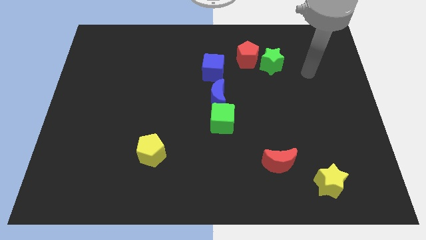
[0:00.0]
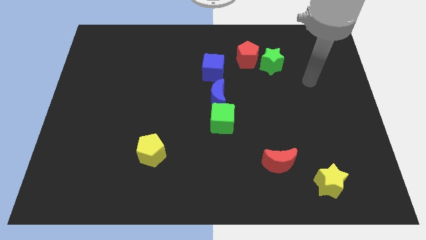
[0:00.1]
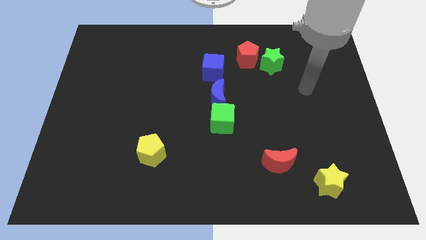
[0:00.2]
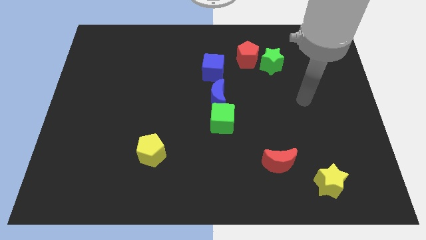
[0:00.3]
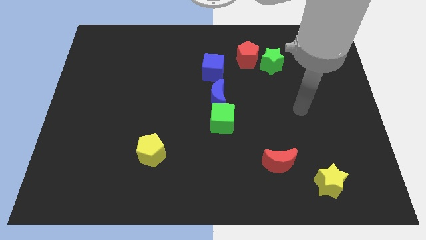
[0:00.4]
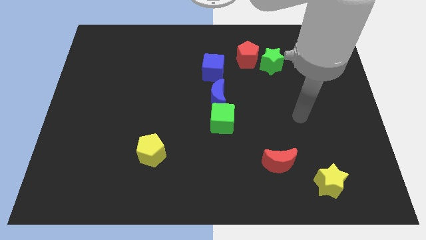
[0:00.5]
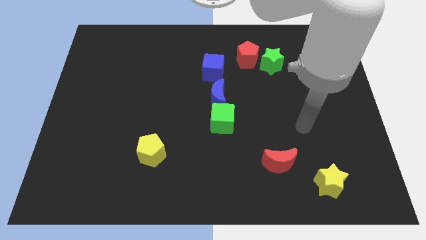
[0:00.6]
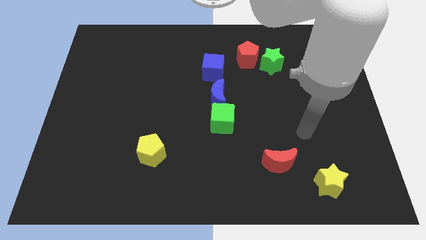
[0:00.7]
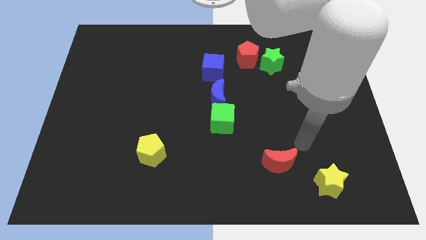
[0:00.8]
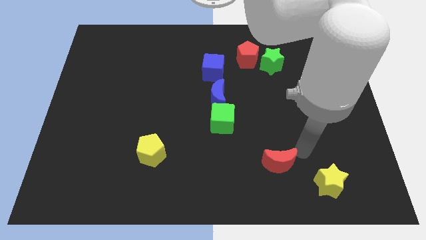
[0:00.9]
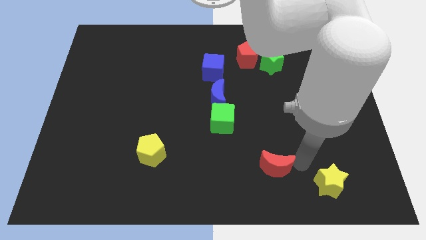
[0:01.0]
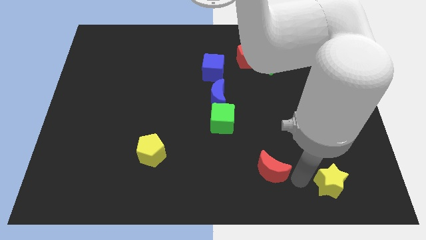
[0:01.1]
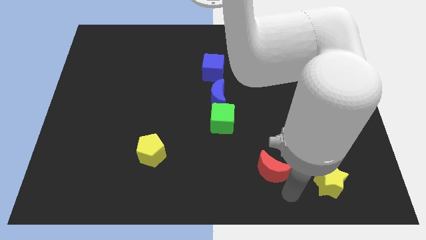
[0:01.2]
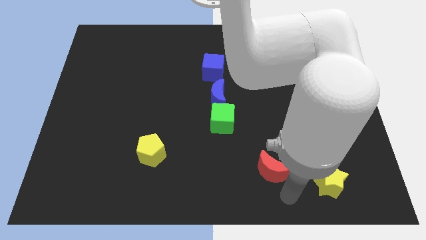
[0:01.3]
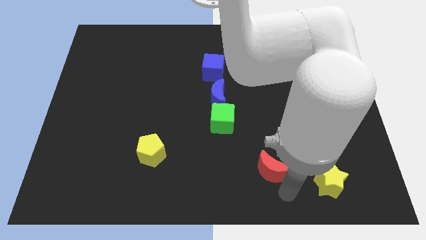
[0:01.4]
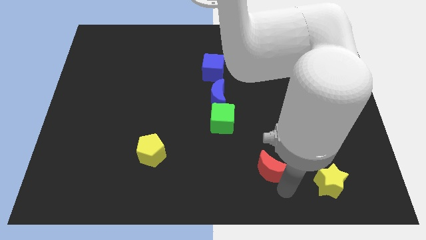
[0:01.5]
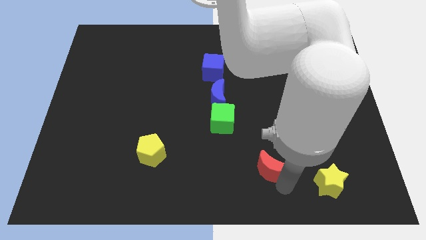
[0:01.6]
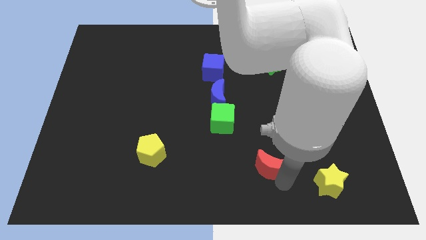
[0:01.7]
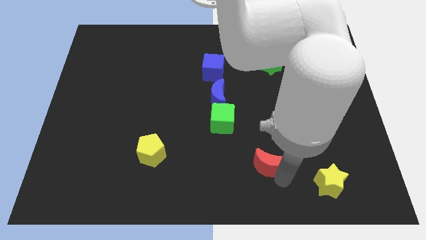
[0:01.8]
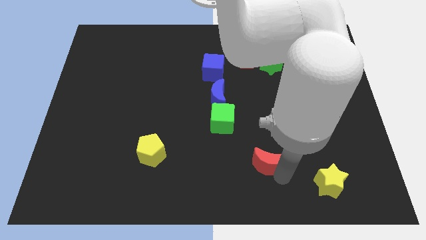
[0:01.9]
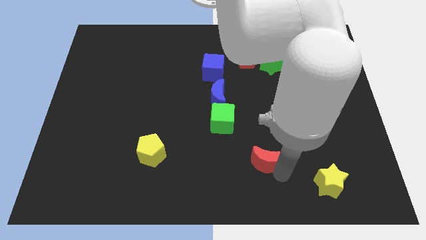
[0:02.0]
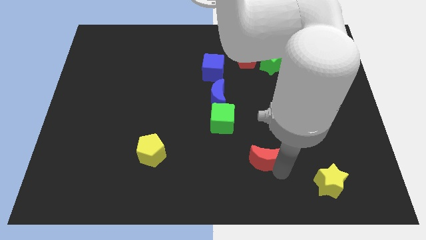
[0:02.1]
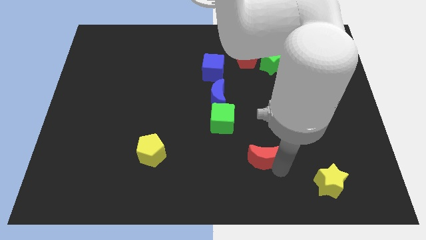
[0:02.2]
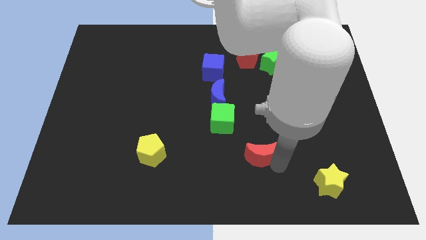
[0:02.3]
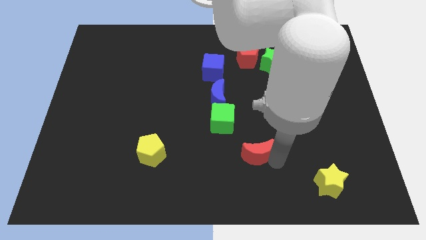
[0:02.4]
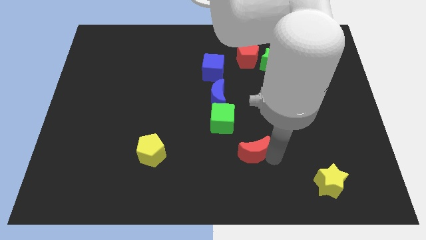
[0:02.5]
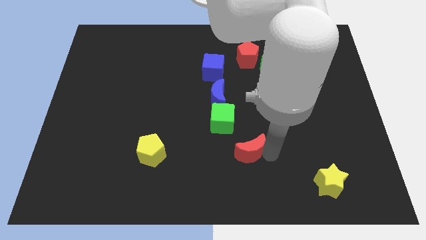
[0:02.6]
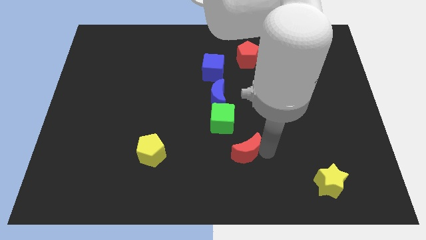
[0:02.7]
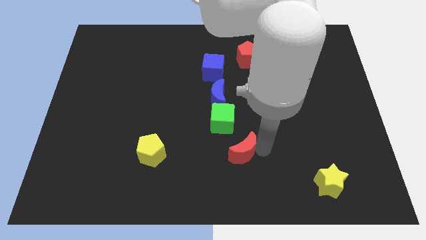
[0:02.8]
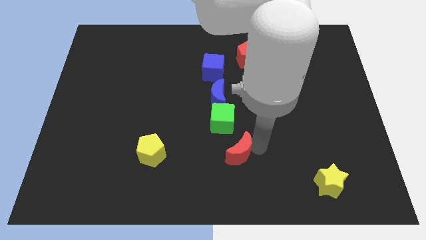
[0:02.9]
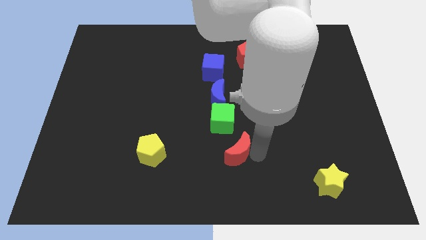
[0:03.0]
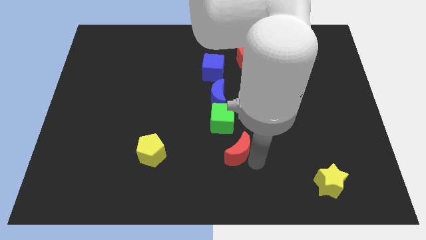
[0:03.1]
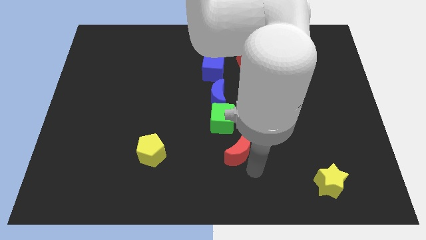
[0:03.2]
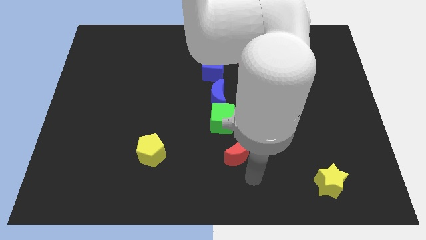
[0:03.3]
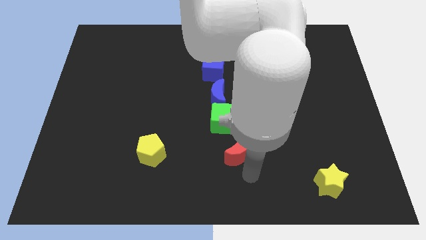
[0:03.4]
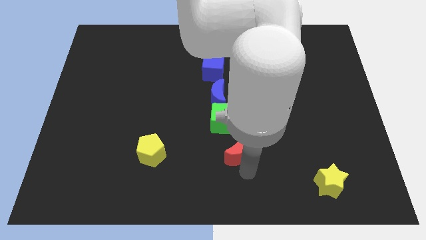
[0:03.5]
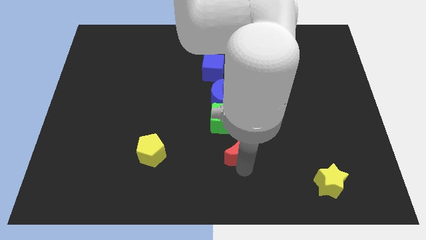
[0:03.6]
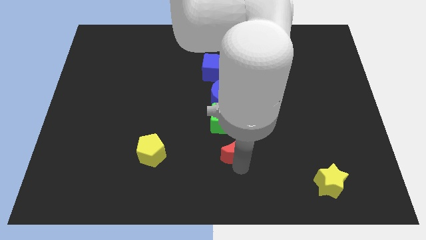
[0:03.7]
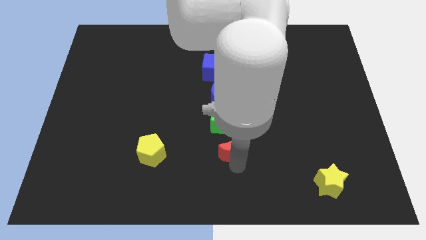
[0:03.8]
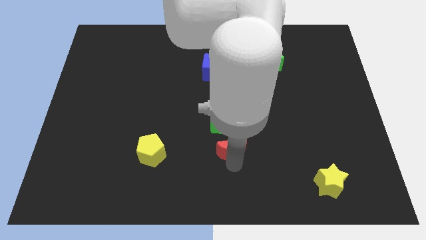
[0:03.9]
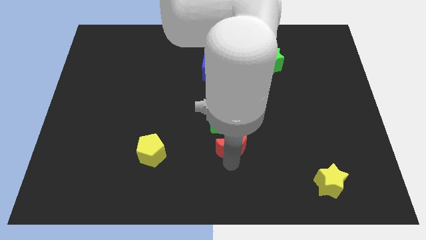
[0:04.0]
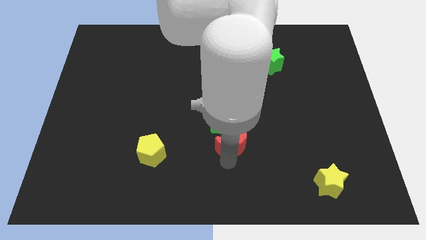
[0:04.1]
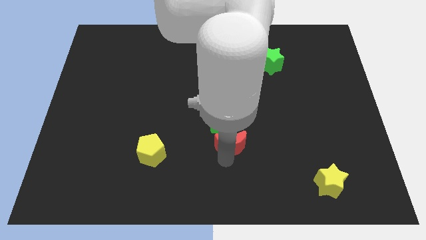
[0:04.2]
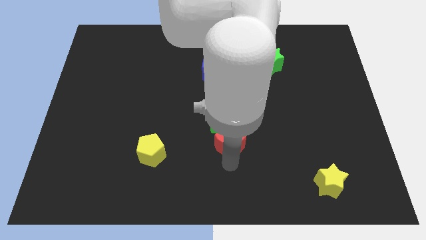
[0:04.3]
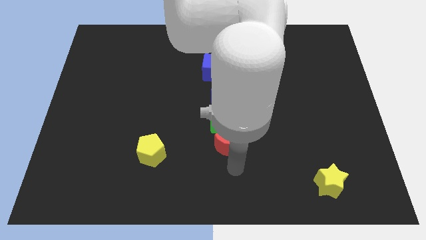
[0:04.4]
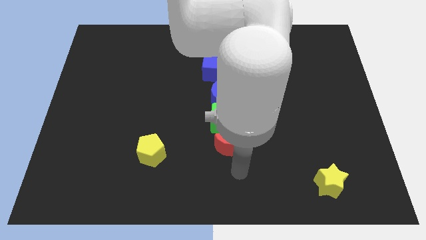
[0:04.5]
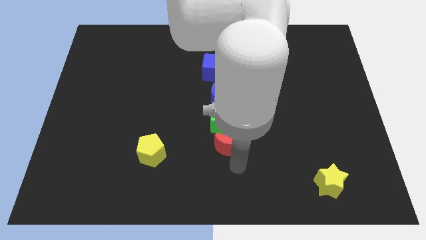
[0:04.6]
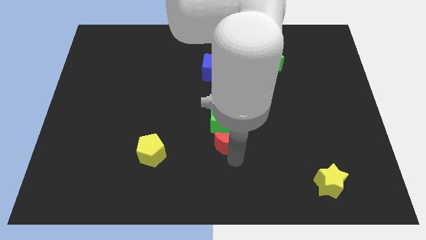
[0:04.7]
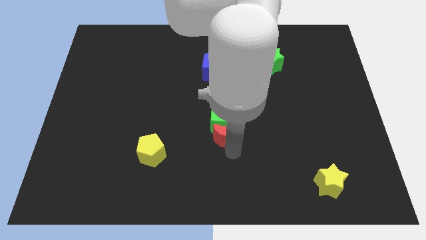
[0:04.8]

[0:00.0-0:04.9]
push the red moon next to the green cube

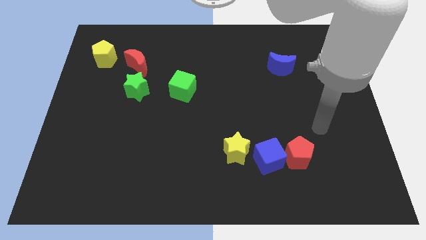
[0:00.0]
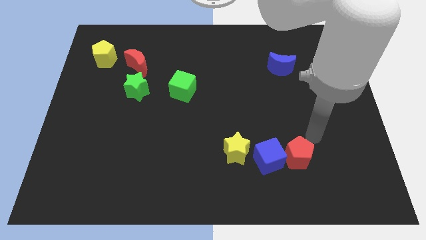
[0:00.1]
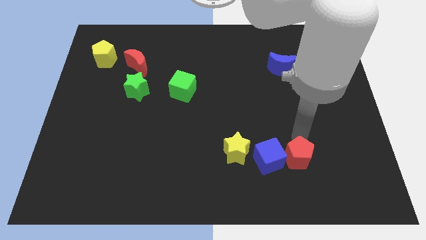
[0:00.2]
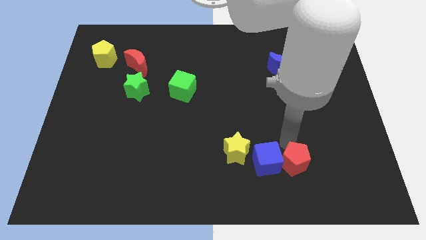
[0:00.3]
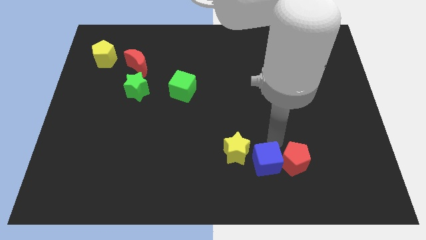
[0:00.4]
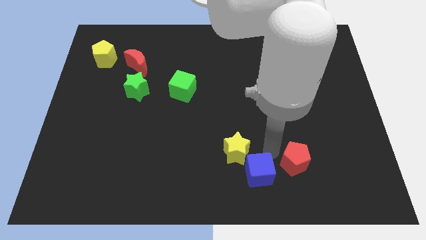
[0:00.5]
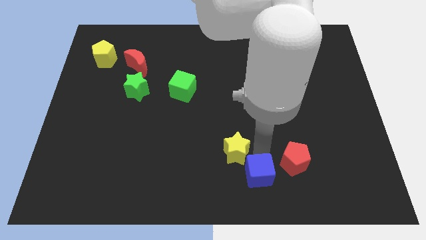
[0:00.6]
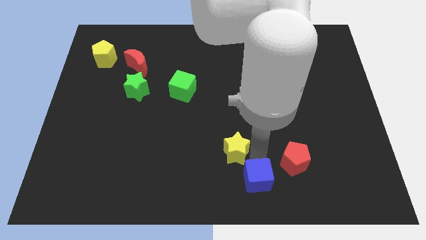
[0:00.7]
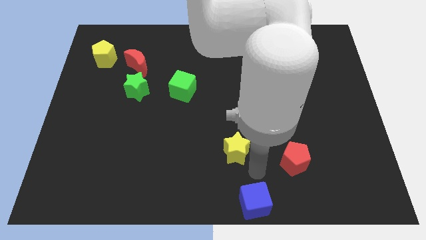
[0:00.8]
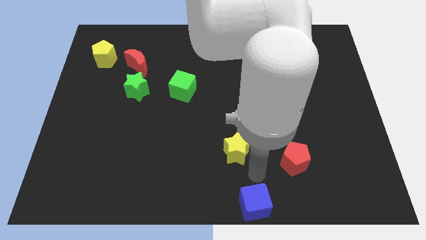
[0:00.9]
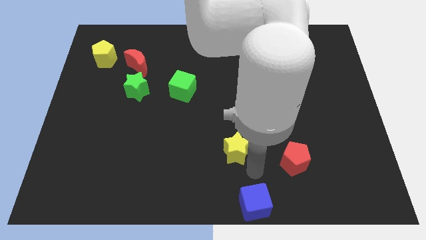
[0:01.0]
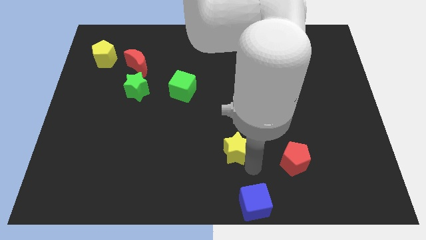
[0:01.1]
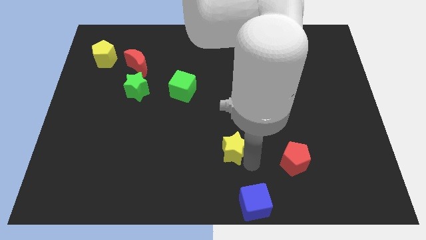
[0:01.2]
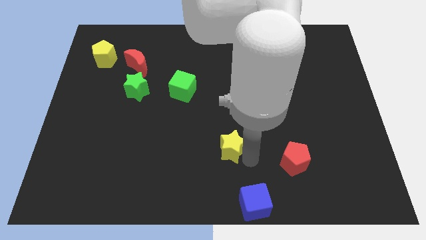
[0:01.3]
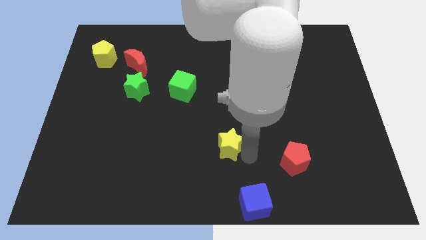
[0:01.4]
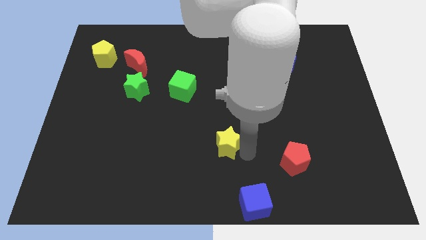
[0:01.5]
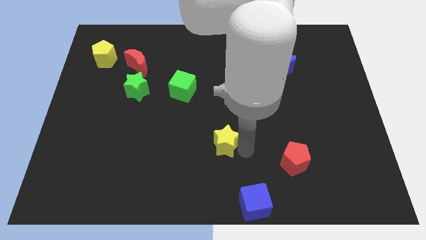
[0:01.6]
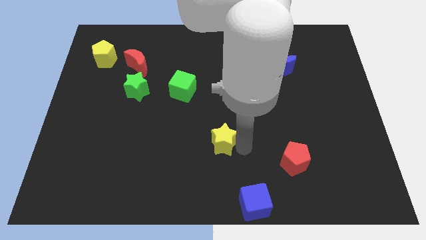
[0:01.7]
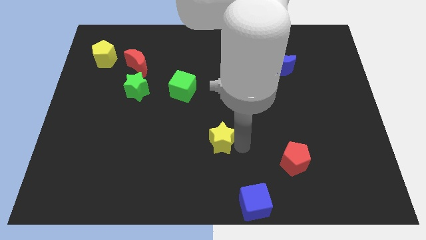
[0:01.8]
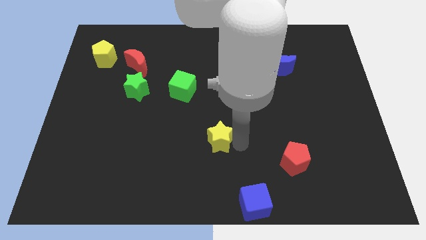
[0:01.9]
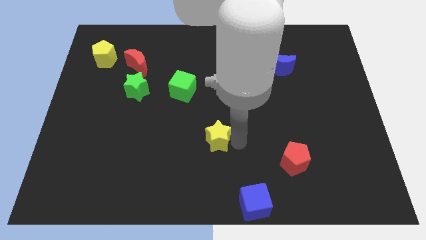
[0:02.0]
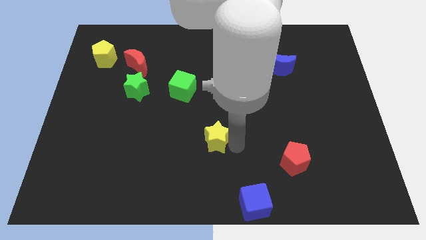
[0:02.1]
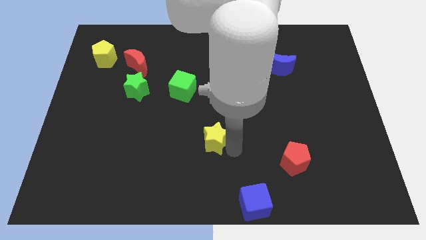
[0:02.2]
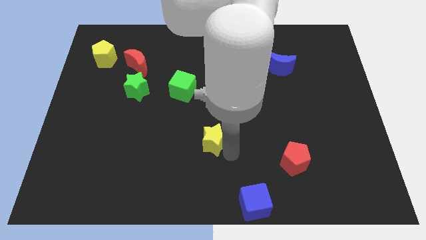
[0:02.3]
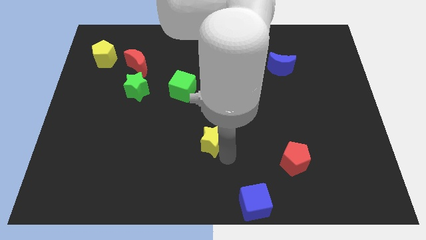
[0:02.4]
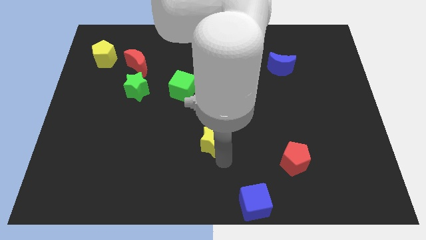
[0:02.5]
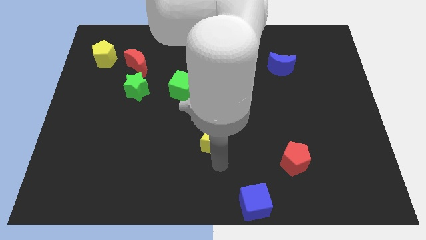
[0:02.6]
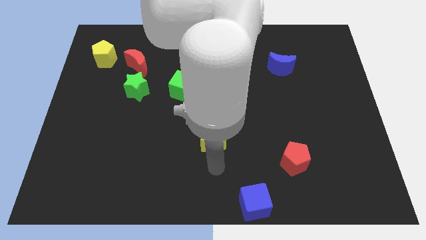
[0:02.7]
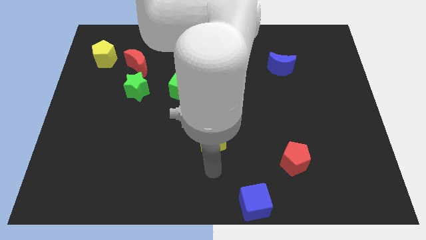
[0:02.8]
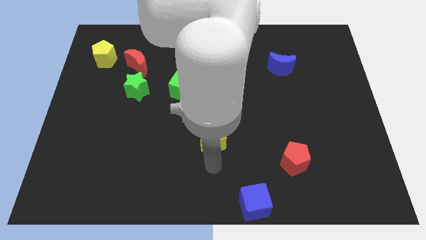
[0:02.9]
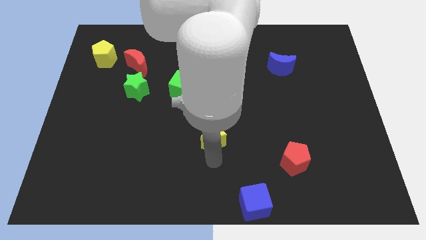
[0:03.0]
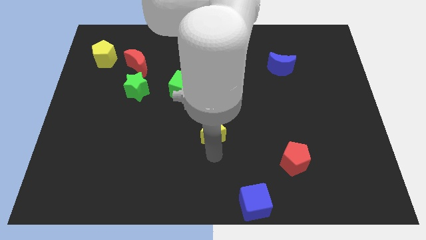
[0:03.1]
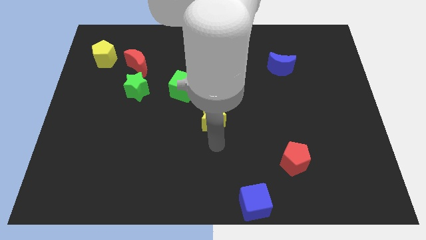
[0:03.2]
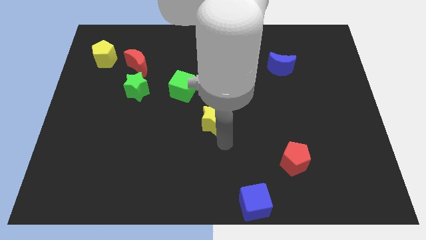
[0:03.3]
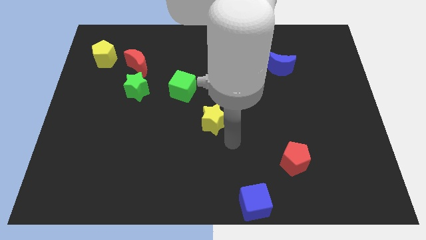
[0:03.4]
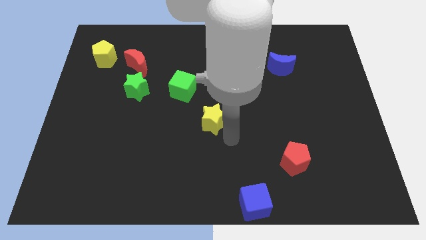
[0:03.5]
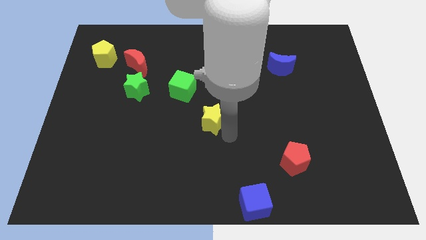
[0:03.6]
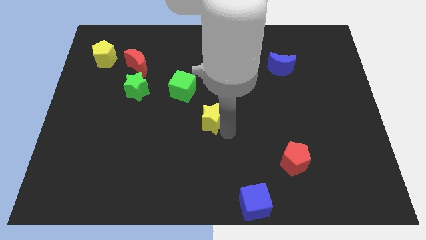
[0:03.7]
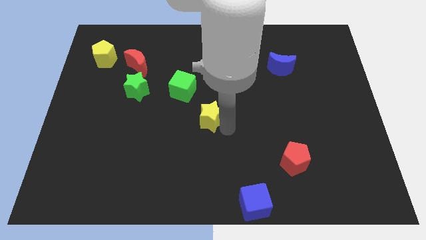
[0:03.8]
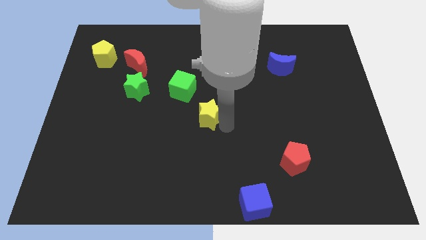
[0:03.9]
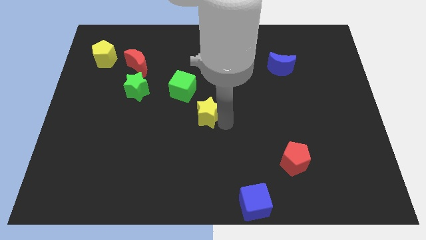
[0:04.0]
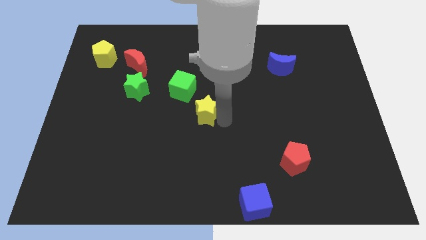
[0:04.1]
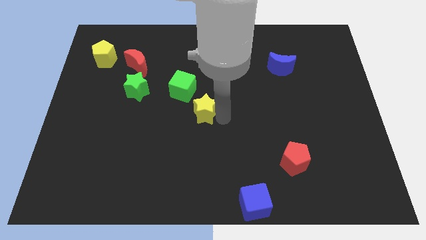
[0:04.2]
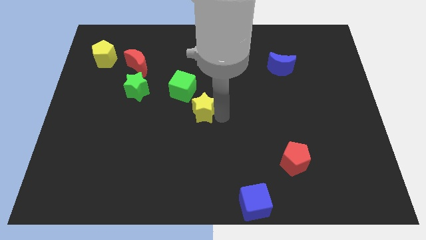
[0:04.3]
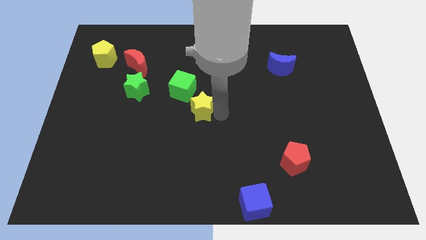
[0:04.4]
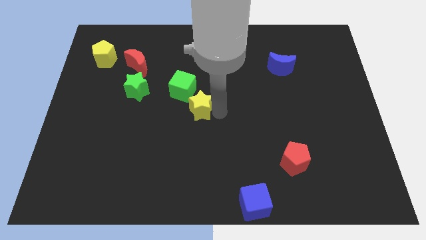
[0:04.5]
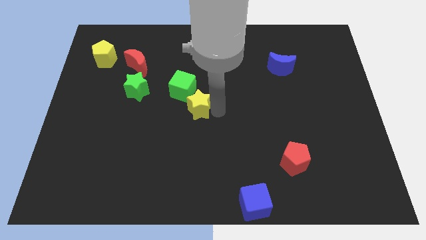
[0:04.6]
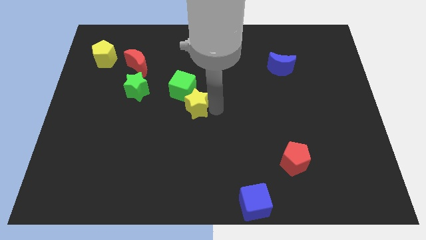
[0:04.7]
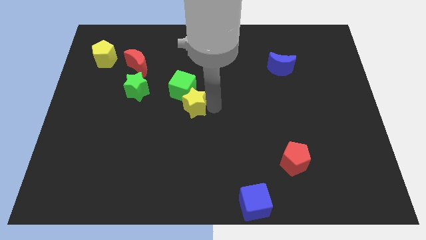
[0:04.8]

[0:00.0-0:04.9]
put the yellow star towards the green cube
